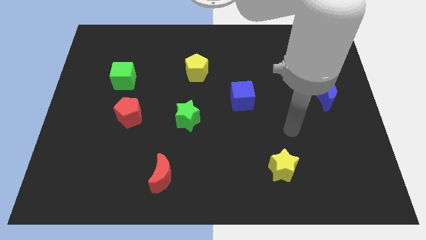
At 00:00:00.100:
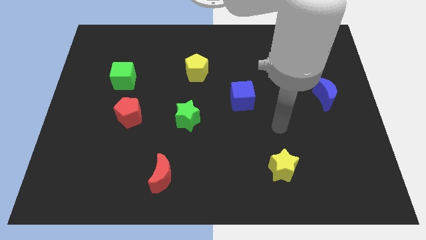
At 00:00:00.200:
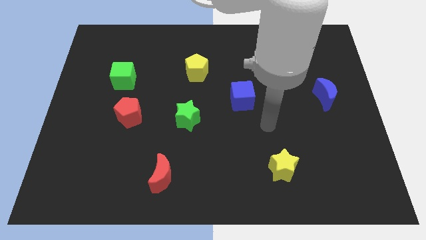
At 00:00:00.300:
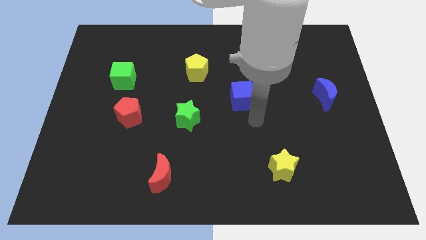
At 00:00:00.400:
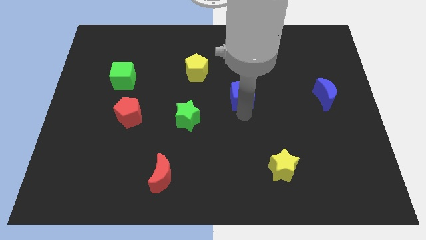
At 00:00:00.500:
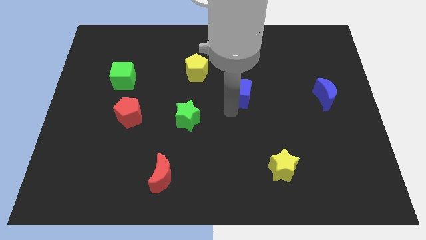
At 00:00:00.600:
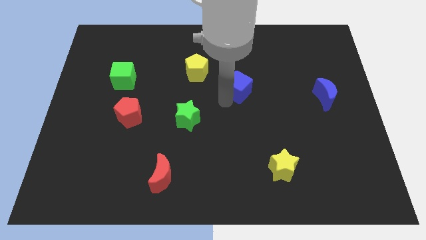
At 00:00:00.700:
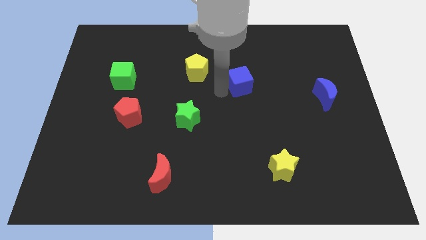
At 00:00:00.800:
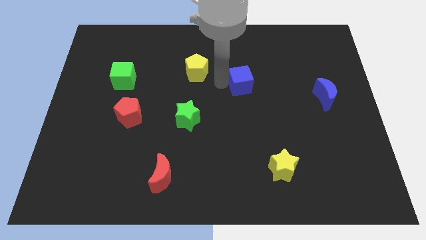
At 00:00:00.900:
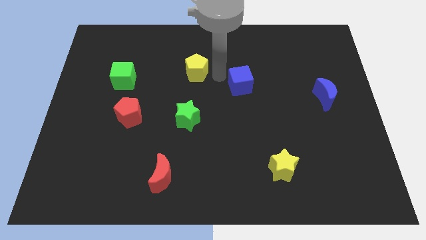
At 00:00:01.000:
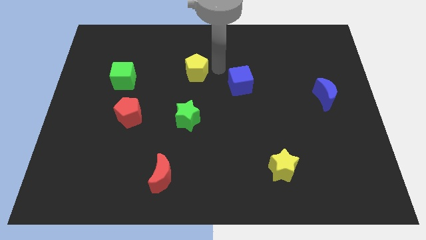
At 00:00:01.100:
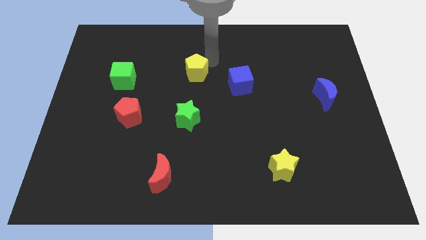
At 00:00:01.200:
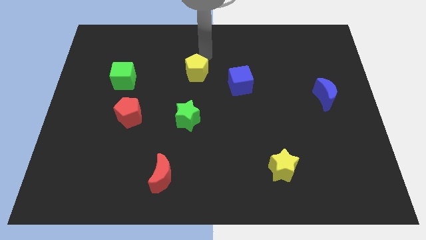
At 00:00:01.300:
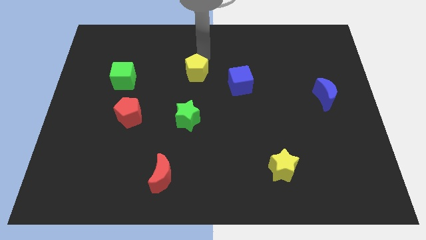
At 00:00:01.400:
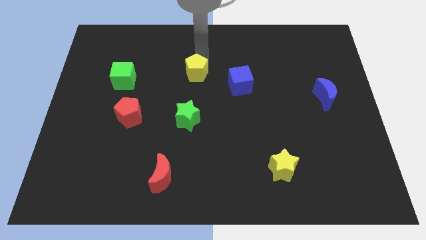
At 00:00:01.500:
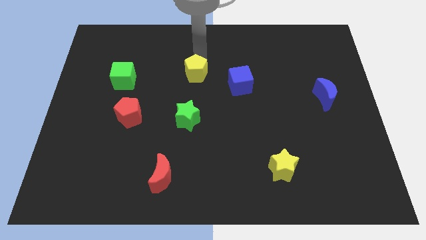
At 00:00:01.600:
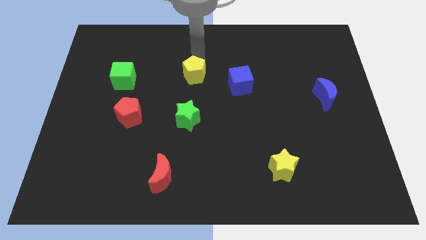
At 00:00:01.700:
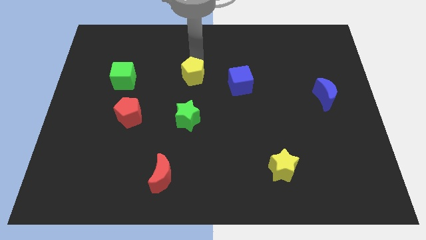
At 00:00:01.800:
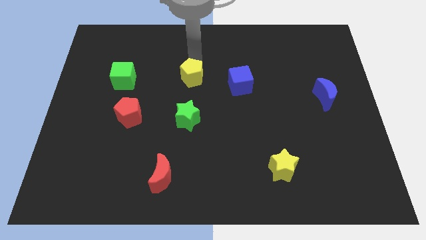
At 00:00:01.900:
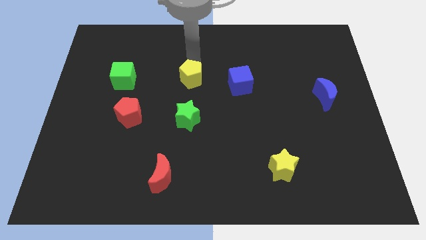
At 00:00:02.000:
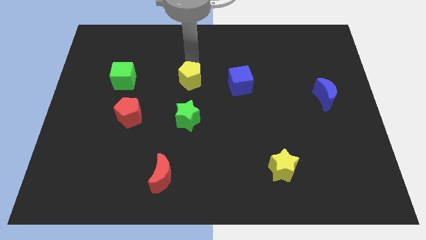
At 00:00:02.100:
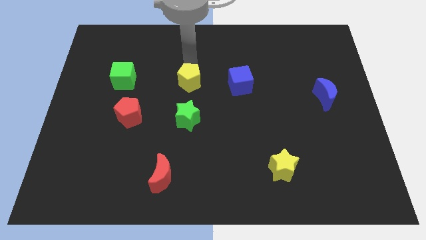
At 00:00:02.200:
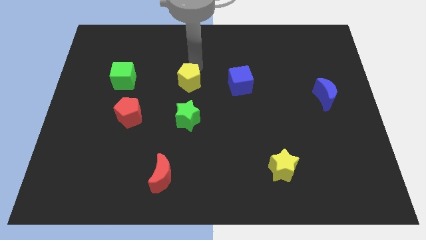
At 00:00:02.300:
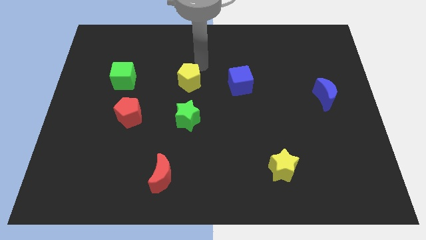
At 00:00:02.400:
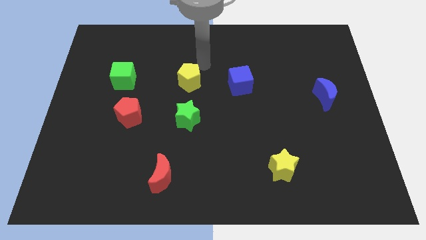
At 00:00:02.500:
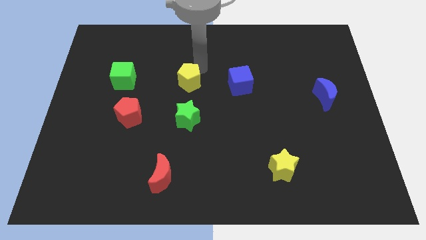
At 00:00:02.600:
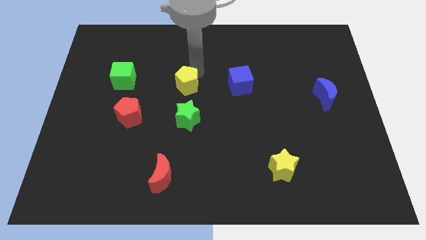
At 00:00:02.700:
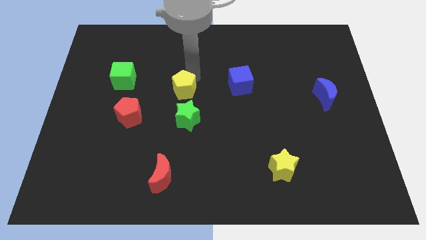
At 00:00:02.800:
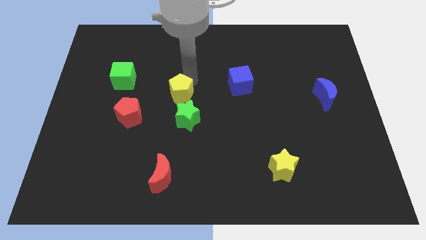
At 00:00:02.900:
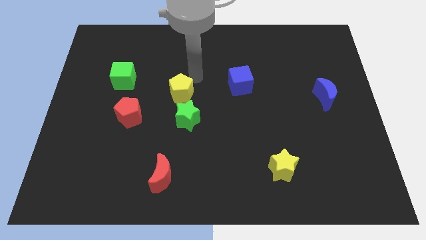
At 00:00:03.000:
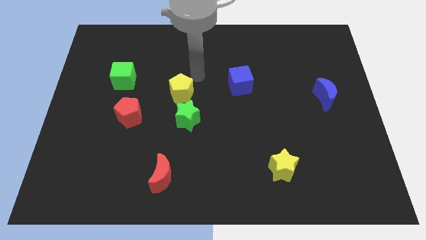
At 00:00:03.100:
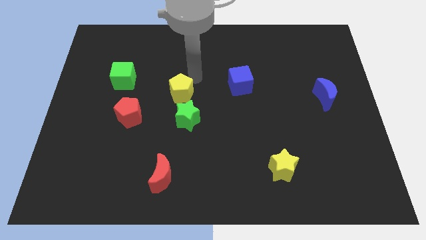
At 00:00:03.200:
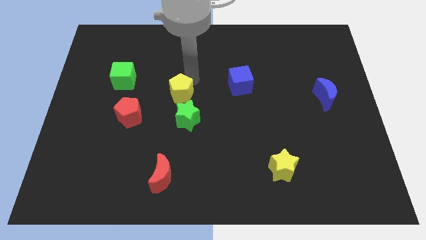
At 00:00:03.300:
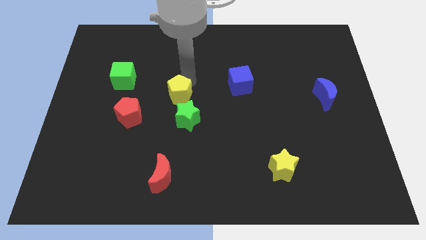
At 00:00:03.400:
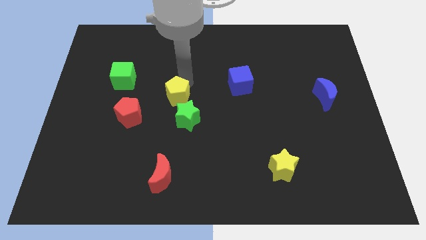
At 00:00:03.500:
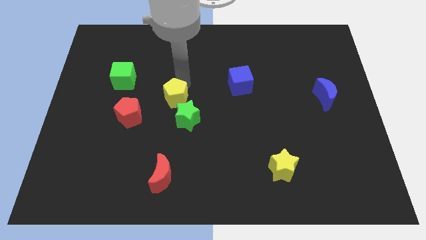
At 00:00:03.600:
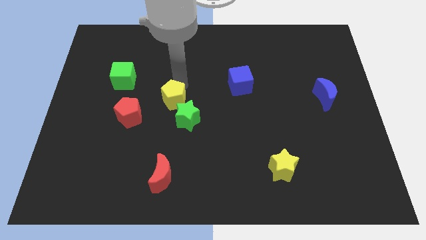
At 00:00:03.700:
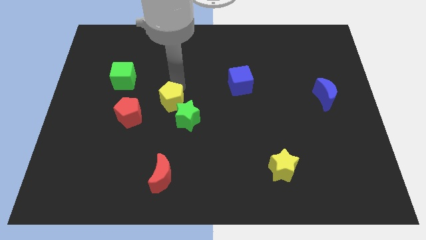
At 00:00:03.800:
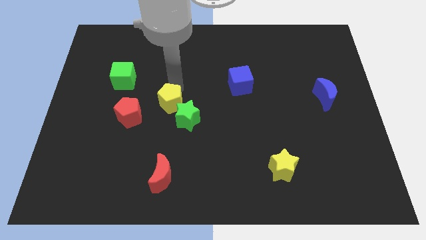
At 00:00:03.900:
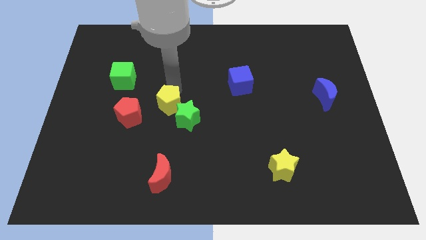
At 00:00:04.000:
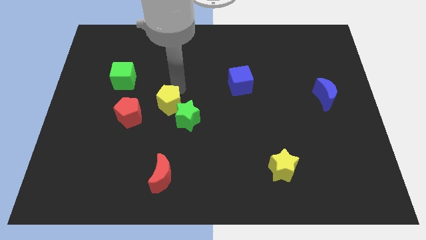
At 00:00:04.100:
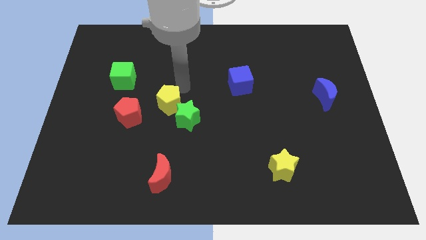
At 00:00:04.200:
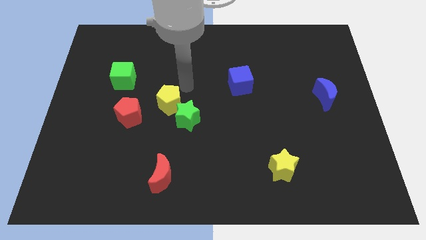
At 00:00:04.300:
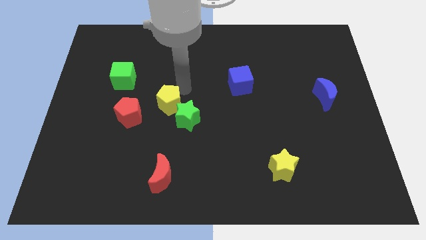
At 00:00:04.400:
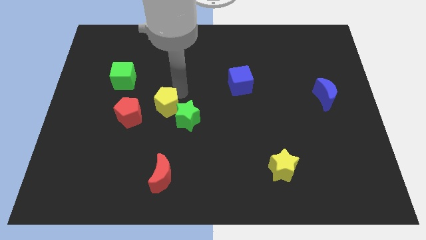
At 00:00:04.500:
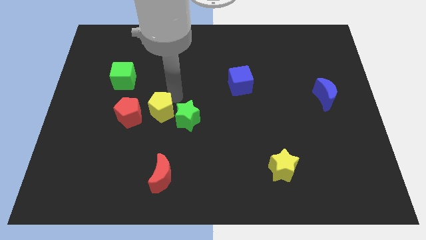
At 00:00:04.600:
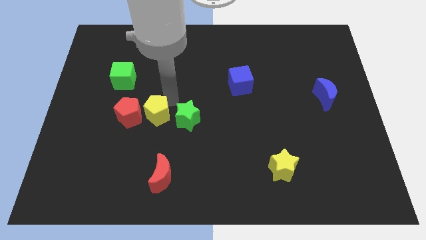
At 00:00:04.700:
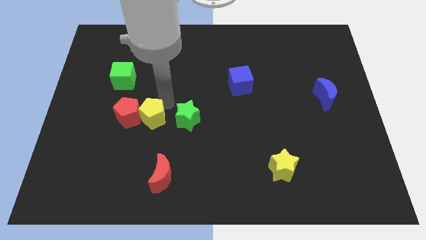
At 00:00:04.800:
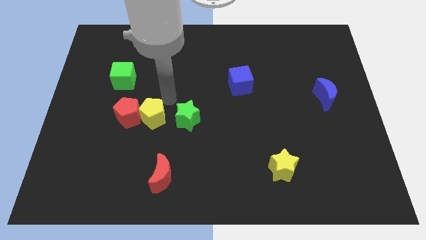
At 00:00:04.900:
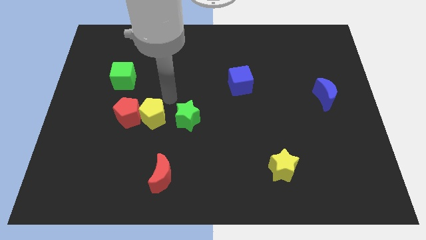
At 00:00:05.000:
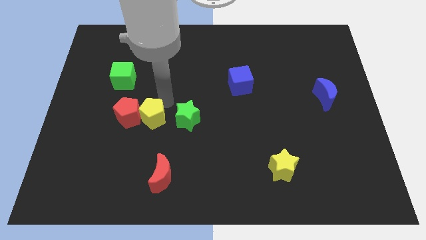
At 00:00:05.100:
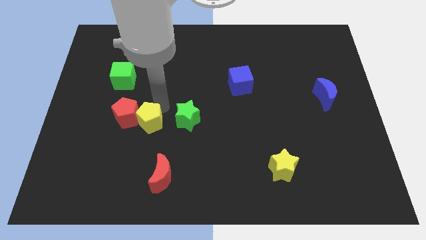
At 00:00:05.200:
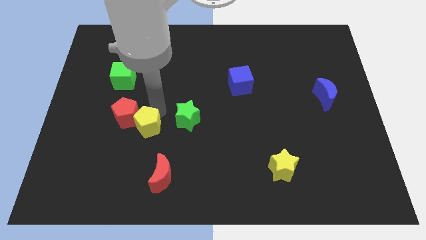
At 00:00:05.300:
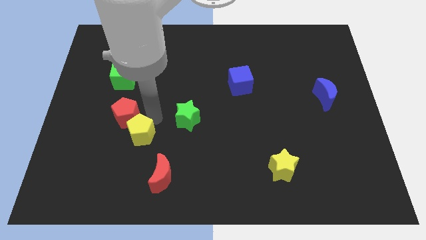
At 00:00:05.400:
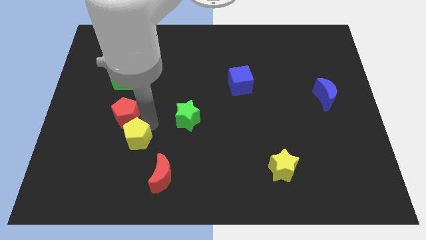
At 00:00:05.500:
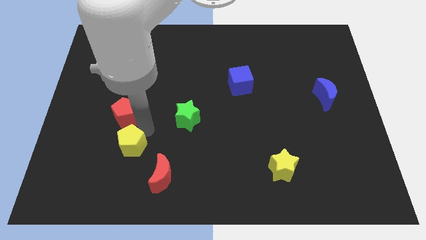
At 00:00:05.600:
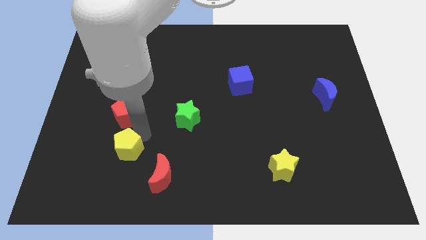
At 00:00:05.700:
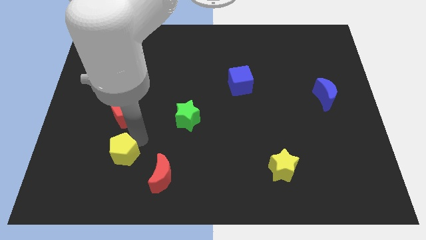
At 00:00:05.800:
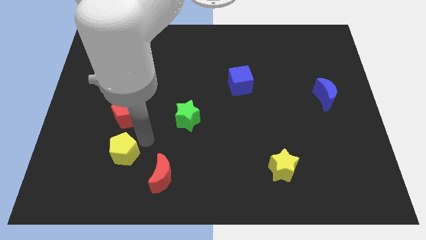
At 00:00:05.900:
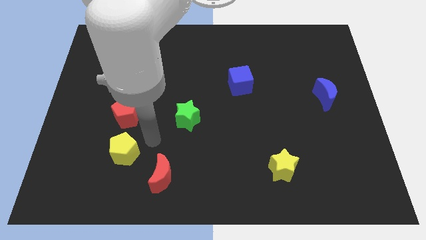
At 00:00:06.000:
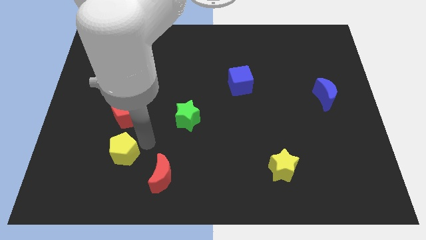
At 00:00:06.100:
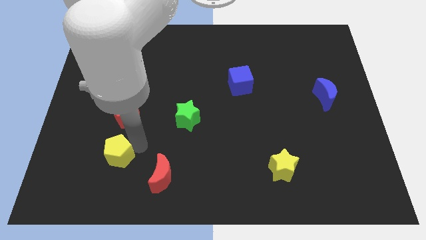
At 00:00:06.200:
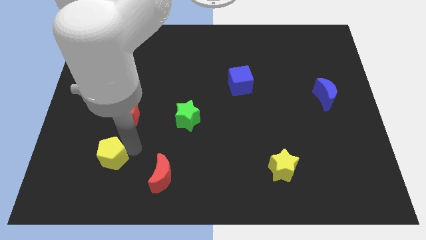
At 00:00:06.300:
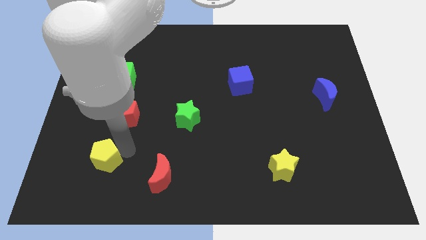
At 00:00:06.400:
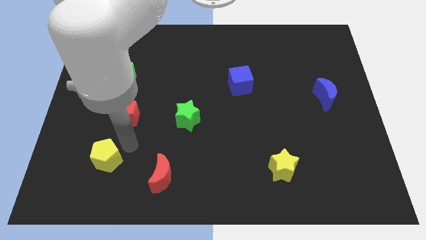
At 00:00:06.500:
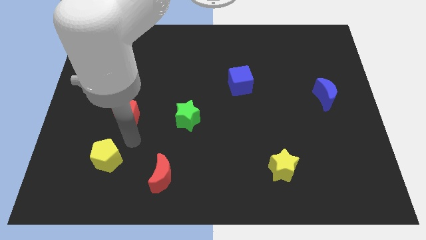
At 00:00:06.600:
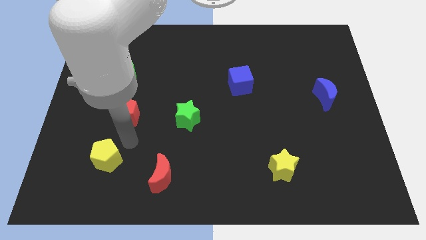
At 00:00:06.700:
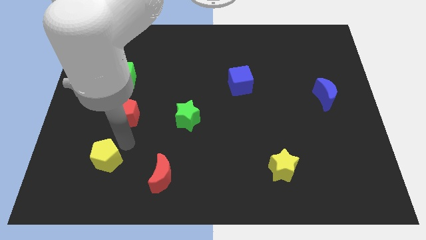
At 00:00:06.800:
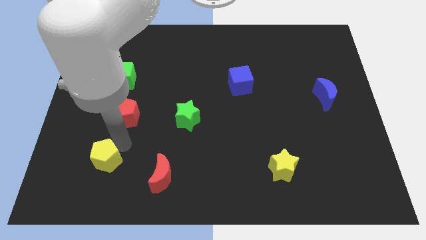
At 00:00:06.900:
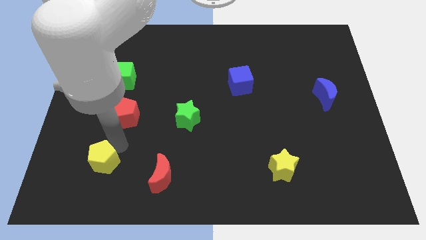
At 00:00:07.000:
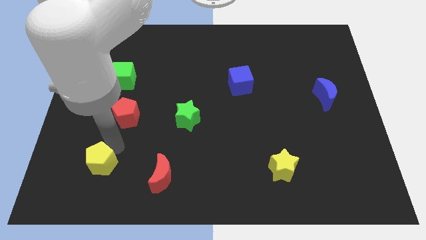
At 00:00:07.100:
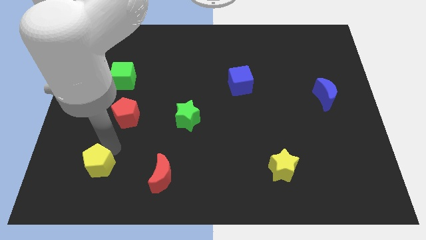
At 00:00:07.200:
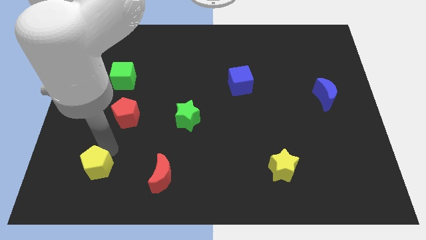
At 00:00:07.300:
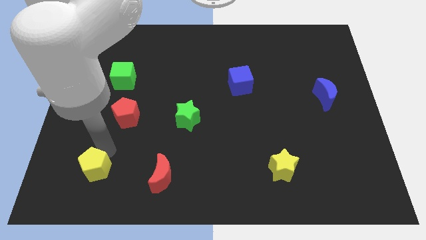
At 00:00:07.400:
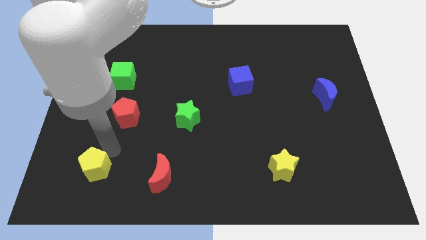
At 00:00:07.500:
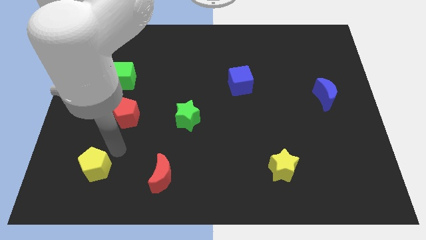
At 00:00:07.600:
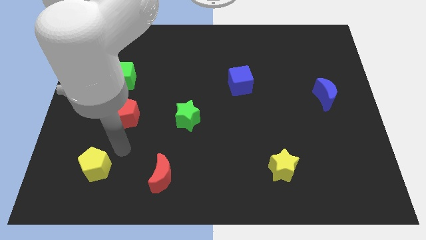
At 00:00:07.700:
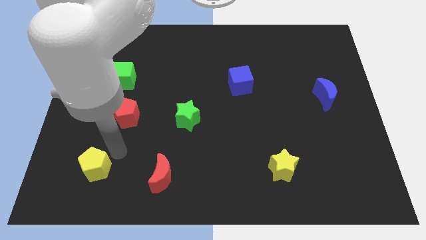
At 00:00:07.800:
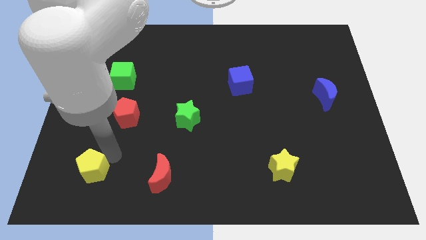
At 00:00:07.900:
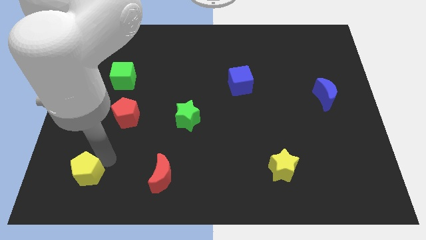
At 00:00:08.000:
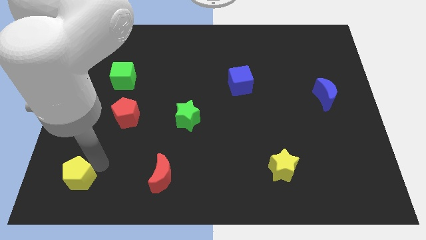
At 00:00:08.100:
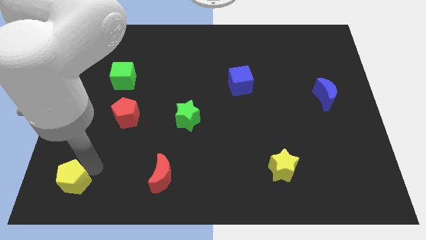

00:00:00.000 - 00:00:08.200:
move the yellow pentagon to the bottom left
